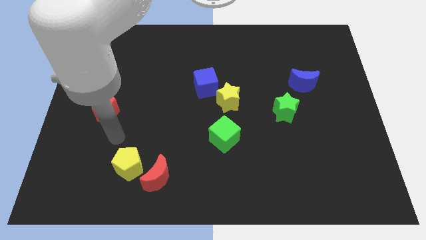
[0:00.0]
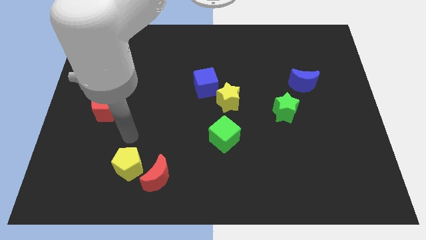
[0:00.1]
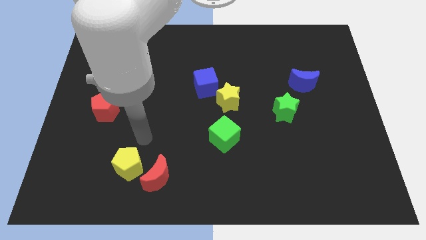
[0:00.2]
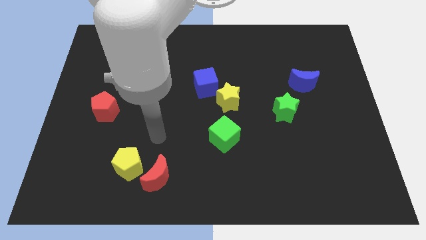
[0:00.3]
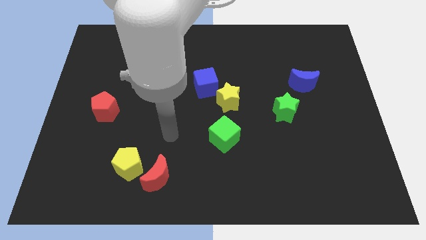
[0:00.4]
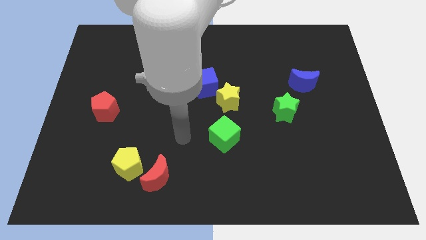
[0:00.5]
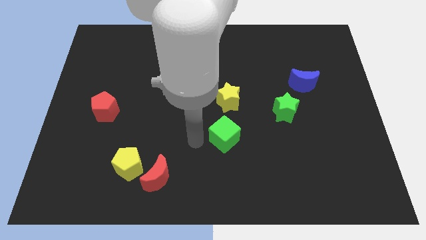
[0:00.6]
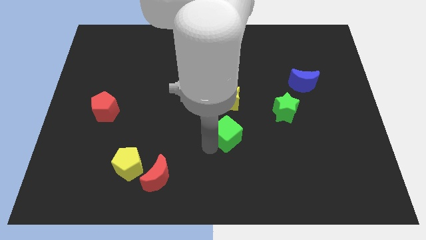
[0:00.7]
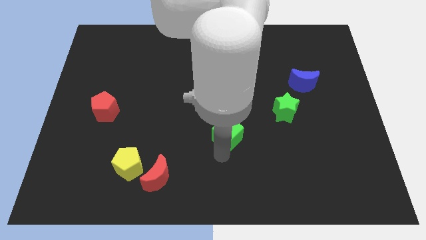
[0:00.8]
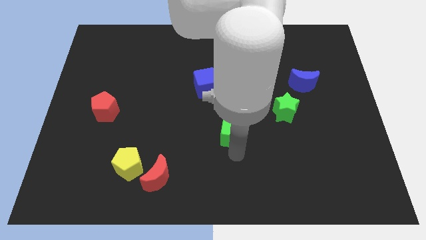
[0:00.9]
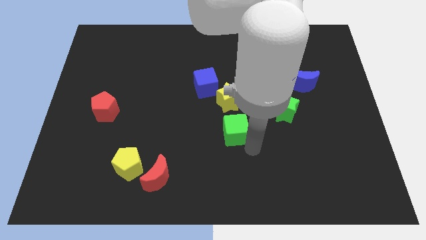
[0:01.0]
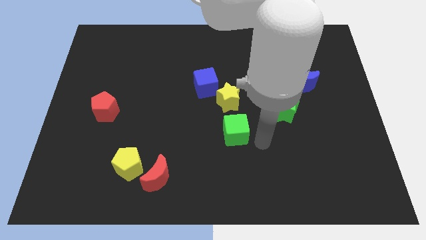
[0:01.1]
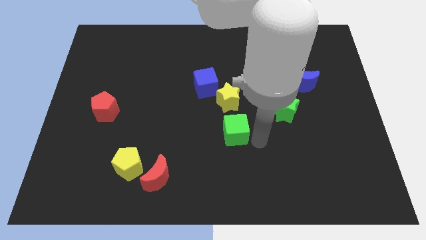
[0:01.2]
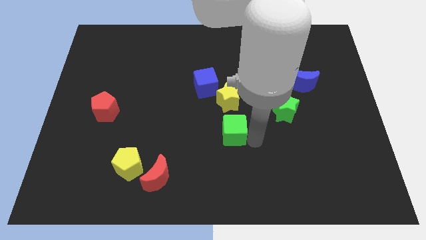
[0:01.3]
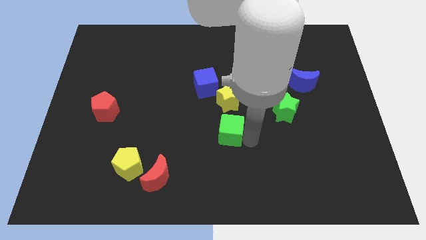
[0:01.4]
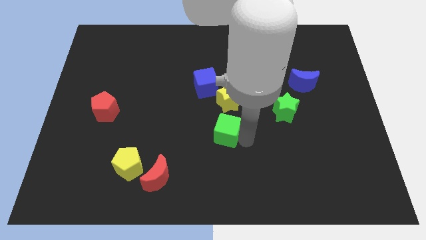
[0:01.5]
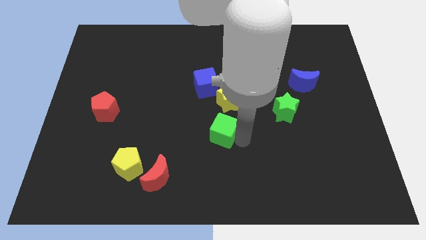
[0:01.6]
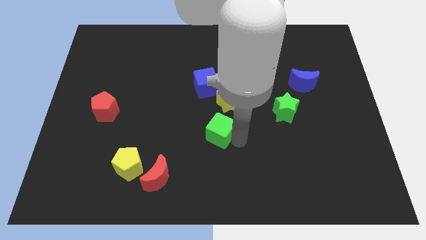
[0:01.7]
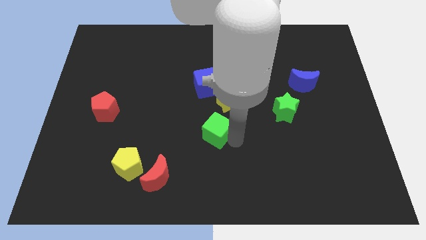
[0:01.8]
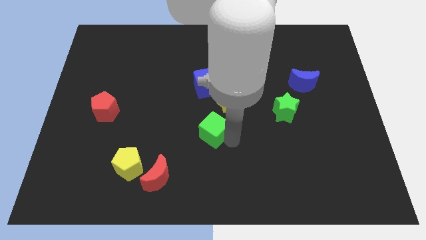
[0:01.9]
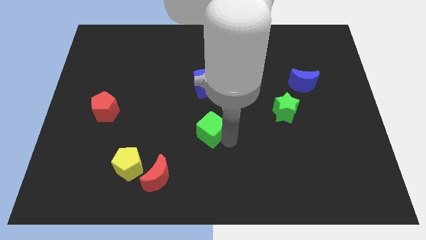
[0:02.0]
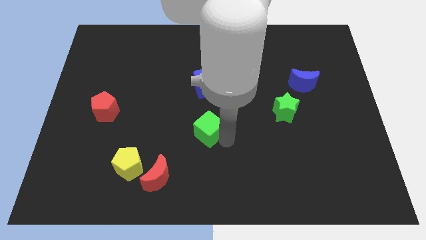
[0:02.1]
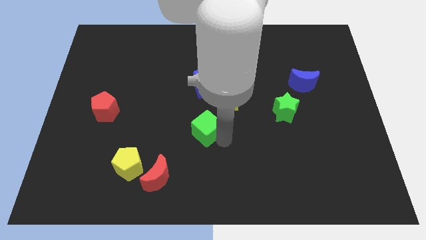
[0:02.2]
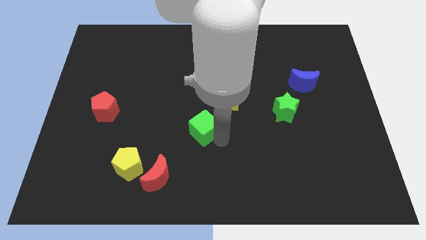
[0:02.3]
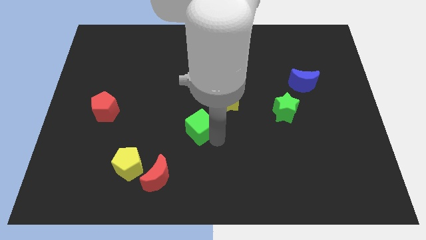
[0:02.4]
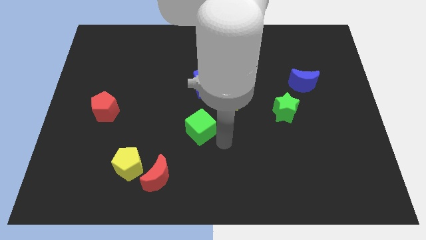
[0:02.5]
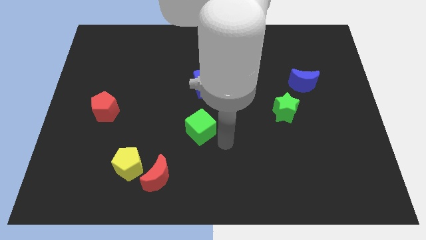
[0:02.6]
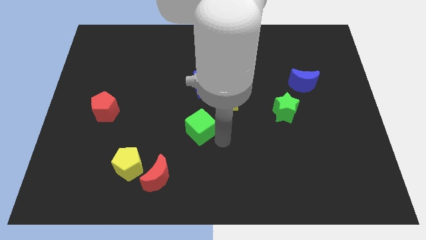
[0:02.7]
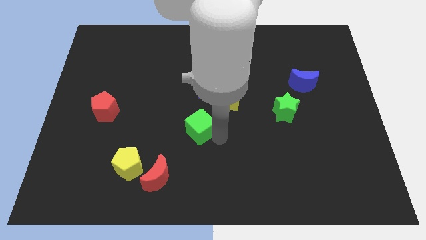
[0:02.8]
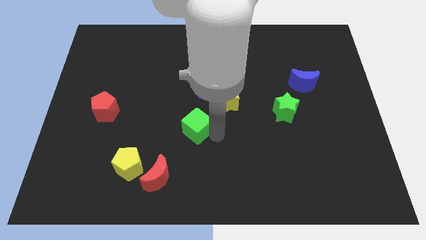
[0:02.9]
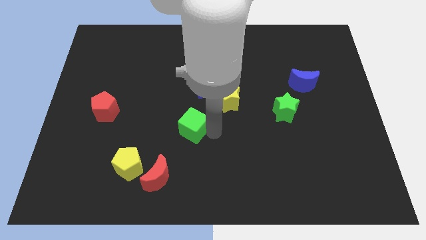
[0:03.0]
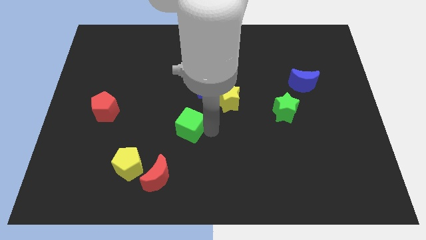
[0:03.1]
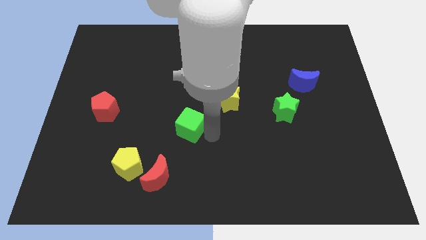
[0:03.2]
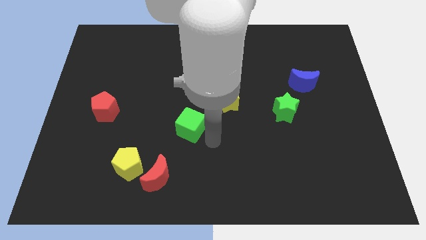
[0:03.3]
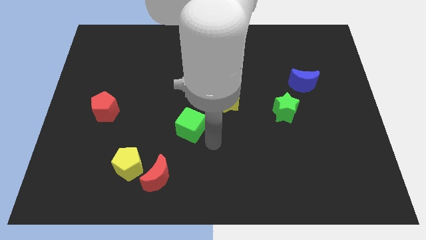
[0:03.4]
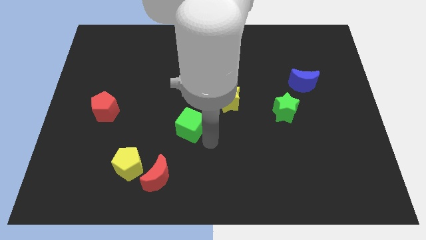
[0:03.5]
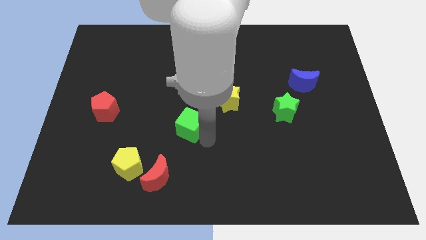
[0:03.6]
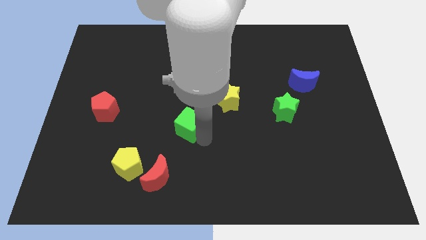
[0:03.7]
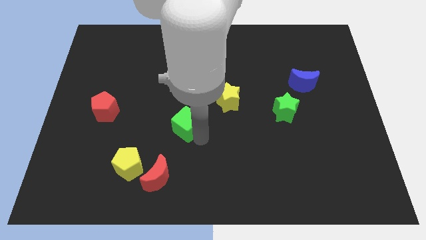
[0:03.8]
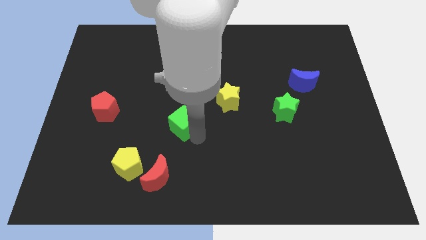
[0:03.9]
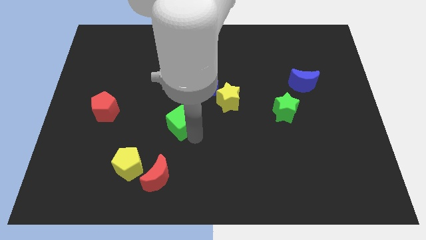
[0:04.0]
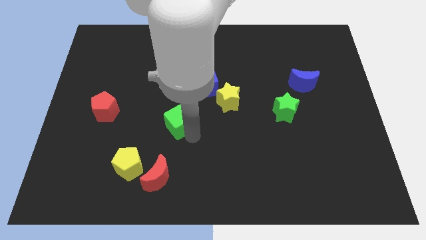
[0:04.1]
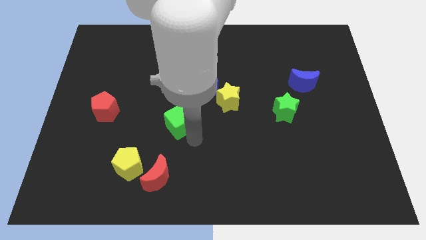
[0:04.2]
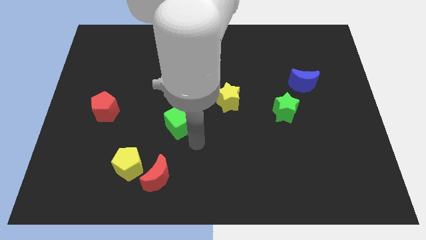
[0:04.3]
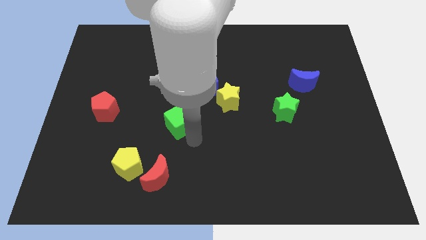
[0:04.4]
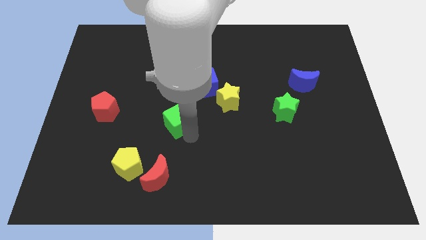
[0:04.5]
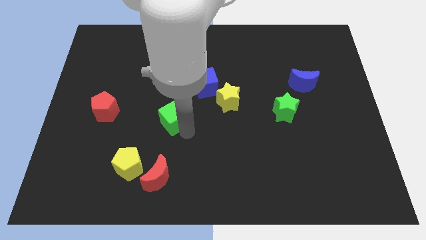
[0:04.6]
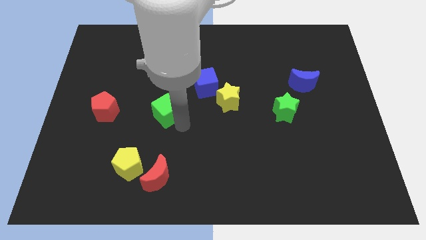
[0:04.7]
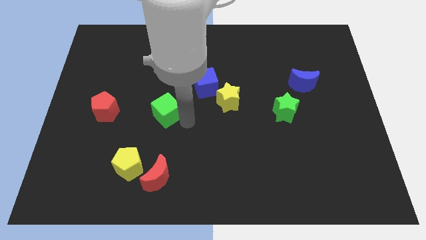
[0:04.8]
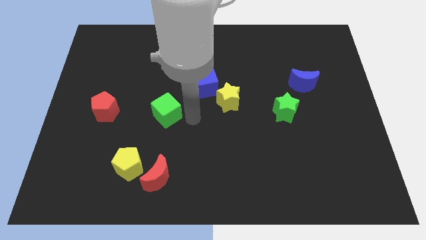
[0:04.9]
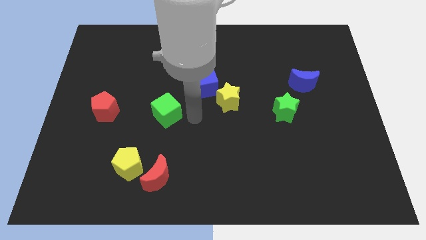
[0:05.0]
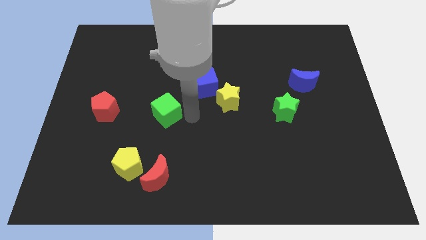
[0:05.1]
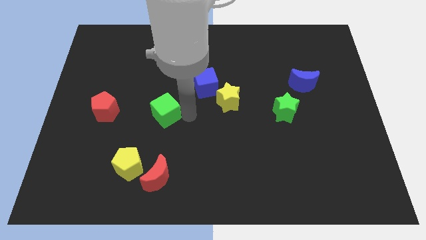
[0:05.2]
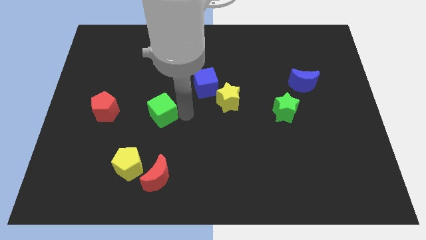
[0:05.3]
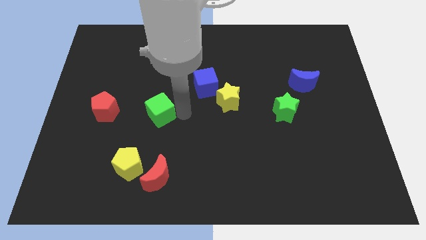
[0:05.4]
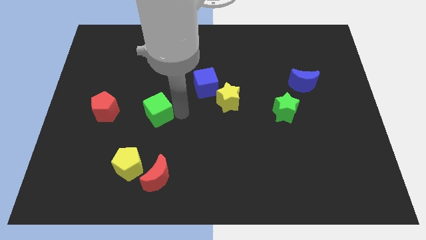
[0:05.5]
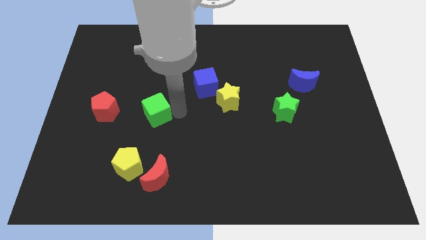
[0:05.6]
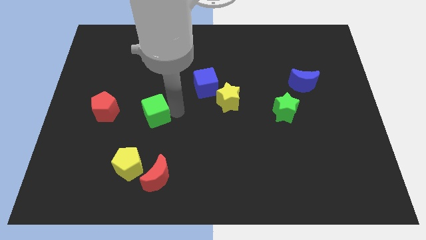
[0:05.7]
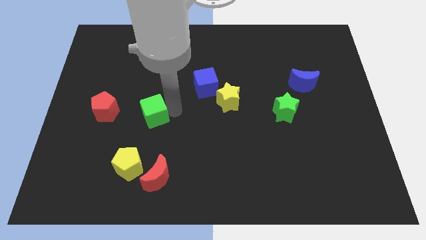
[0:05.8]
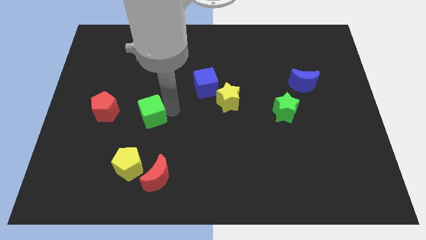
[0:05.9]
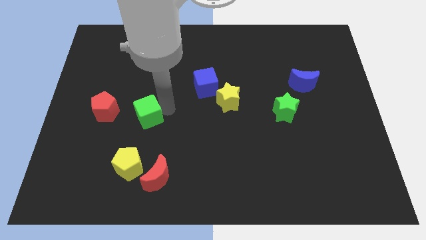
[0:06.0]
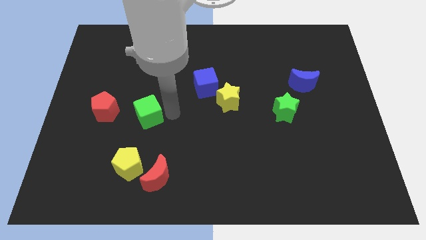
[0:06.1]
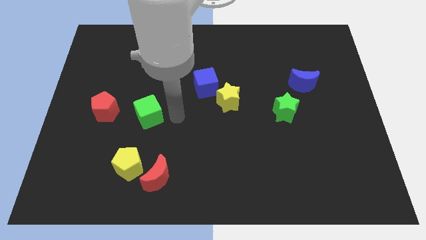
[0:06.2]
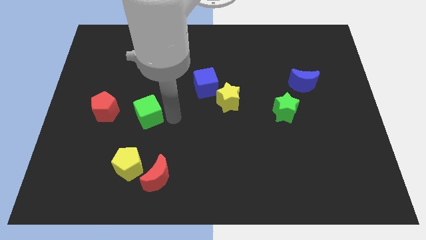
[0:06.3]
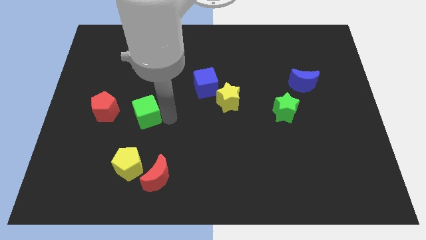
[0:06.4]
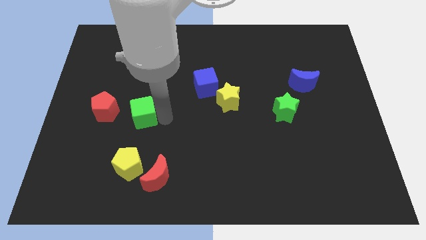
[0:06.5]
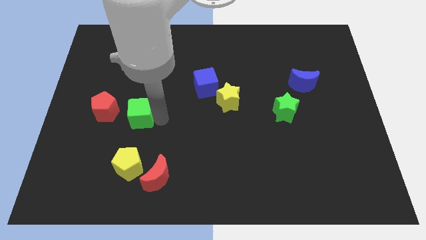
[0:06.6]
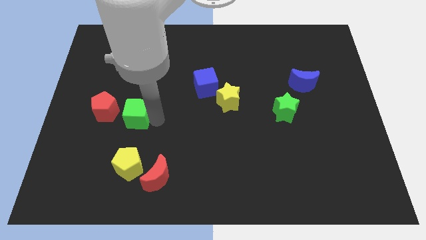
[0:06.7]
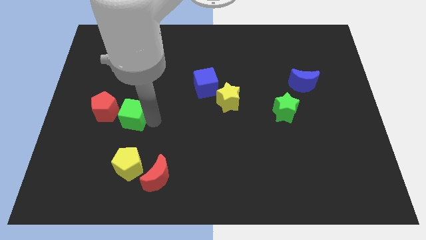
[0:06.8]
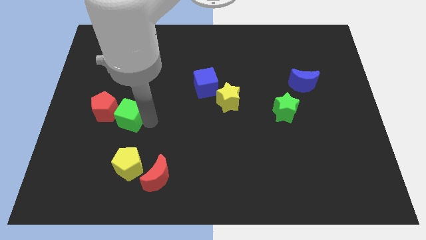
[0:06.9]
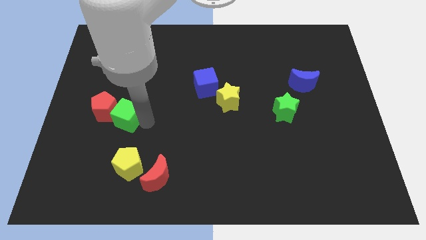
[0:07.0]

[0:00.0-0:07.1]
put the green cube towards the red pentagon
